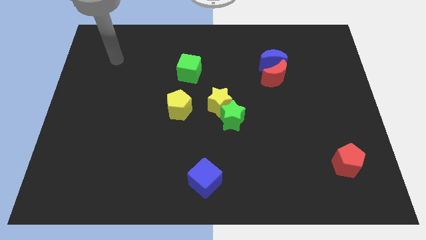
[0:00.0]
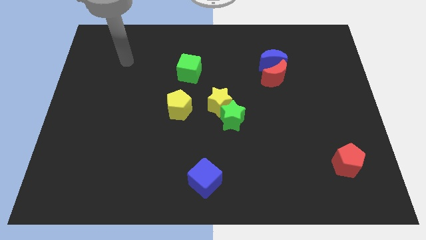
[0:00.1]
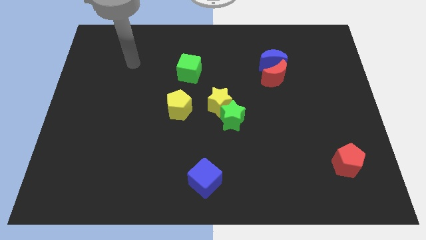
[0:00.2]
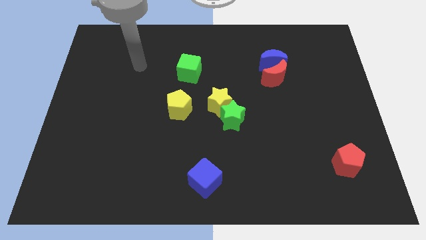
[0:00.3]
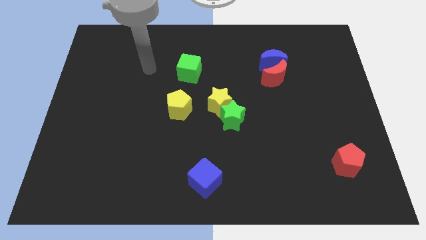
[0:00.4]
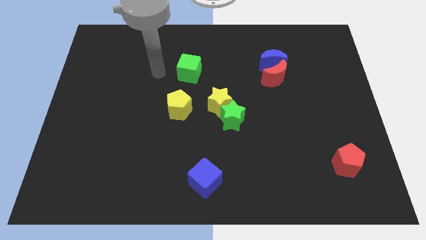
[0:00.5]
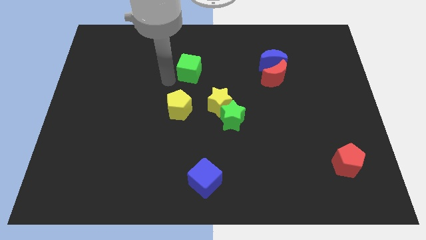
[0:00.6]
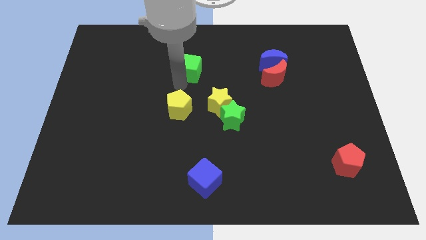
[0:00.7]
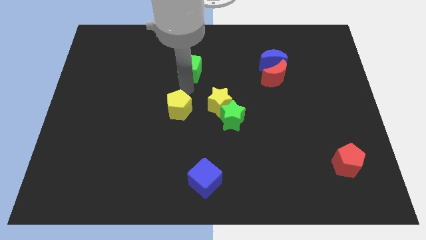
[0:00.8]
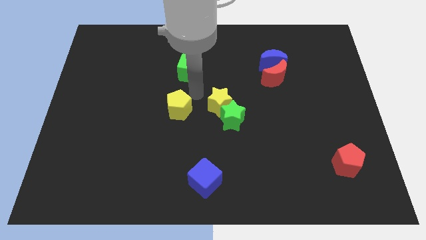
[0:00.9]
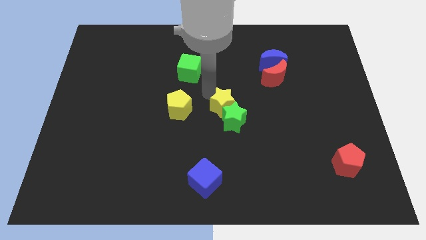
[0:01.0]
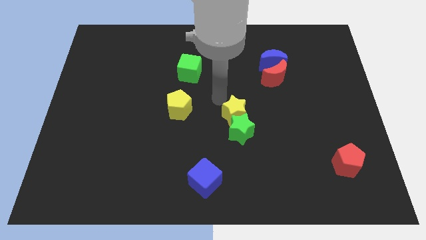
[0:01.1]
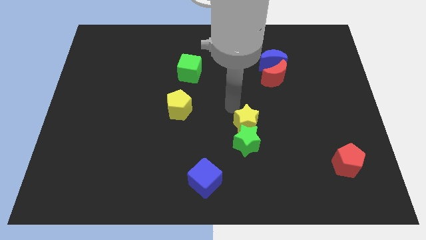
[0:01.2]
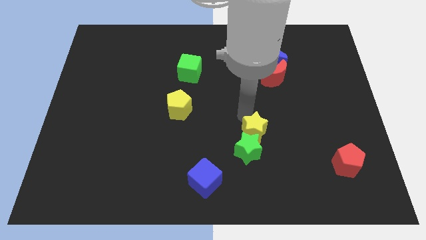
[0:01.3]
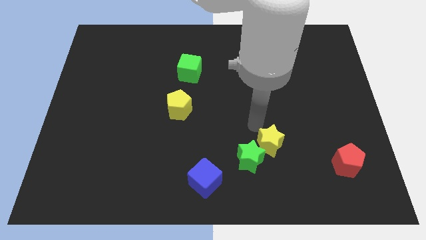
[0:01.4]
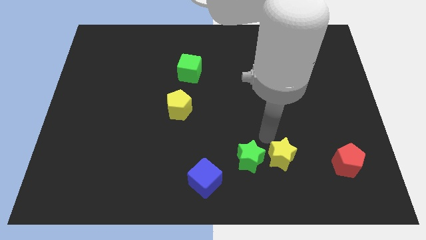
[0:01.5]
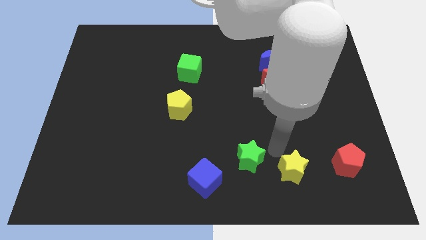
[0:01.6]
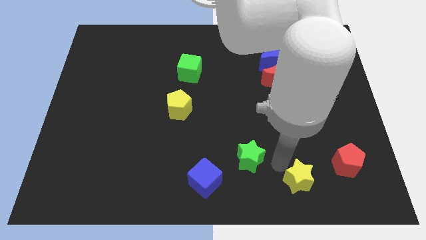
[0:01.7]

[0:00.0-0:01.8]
move the green star away from the yellow star

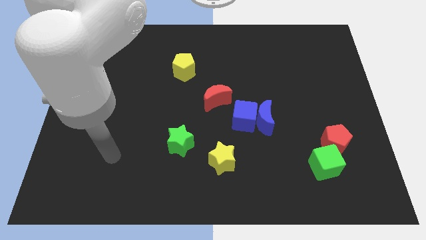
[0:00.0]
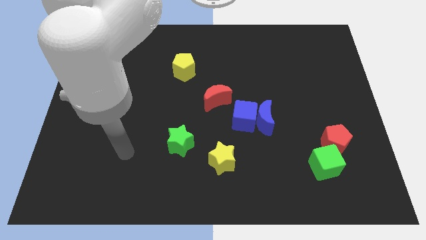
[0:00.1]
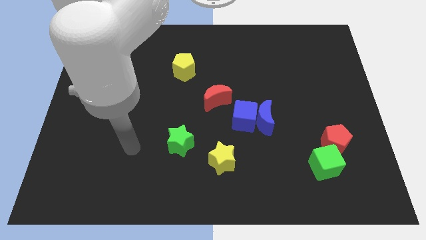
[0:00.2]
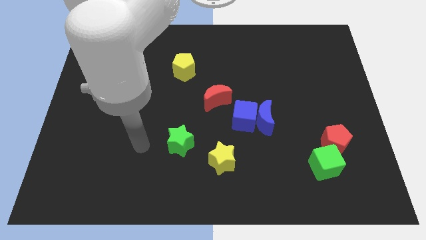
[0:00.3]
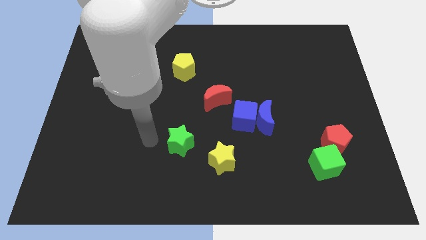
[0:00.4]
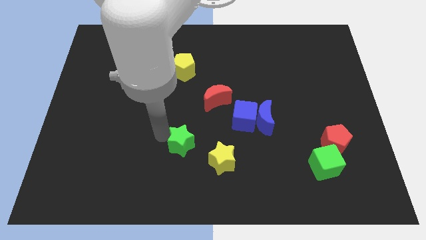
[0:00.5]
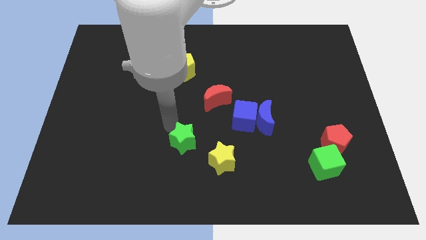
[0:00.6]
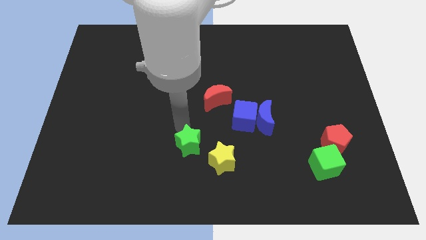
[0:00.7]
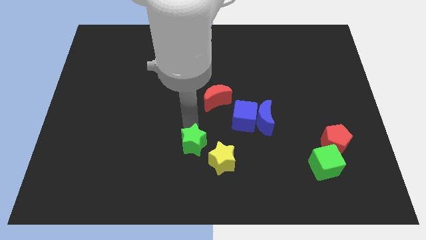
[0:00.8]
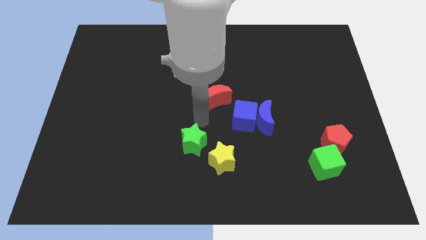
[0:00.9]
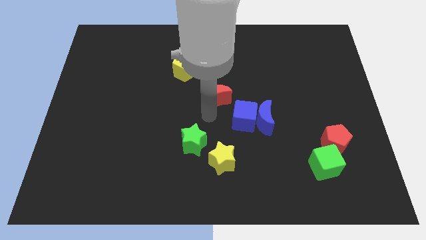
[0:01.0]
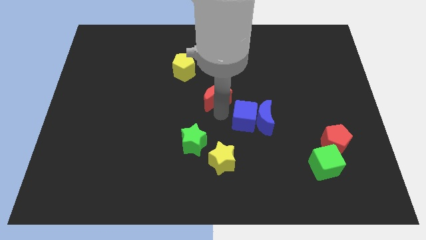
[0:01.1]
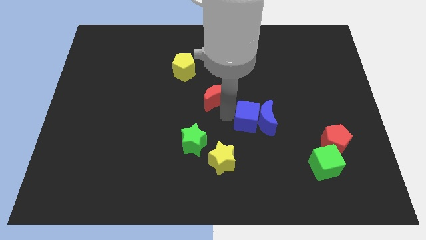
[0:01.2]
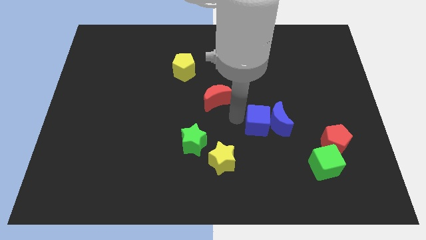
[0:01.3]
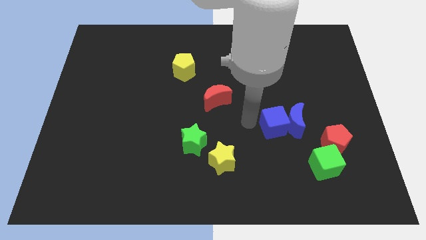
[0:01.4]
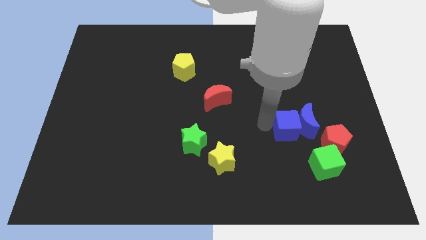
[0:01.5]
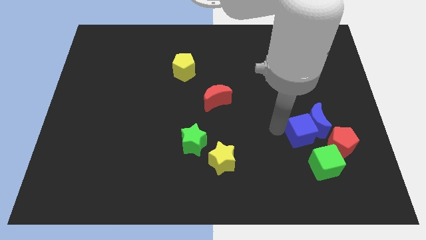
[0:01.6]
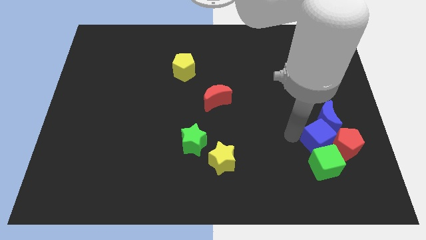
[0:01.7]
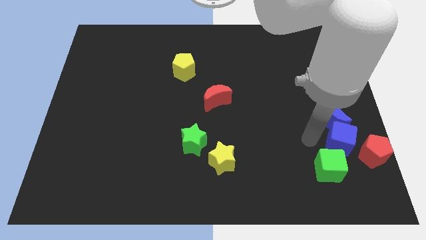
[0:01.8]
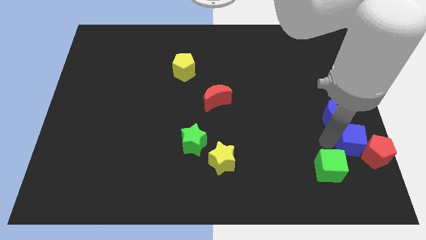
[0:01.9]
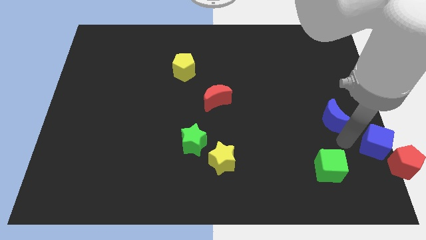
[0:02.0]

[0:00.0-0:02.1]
pull the blue moon apart from the blue cube

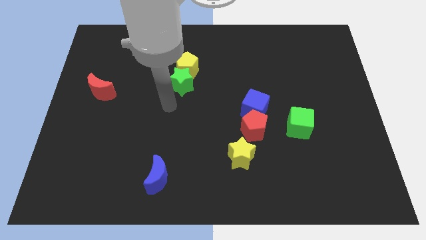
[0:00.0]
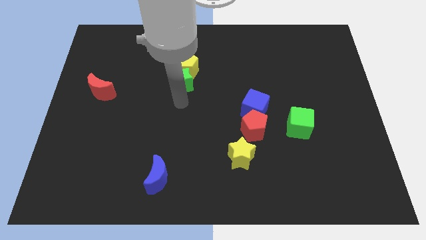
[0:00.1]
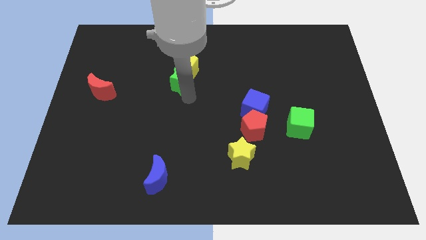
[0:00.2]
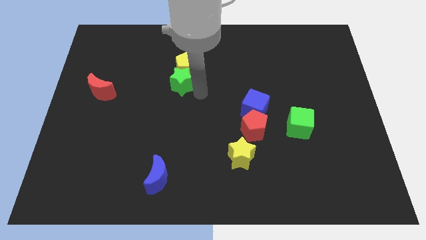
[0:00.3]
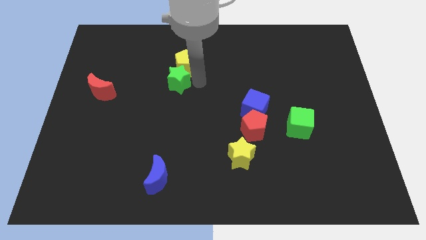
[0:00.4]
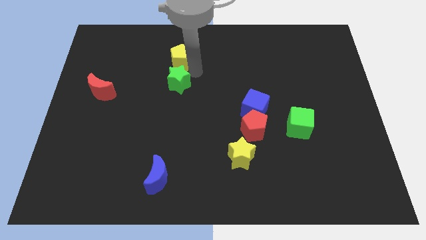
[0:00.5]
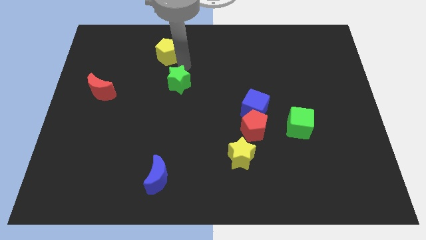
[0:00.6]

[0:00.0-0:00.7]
move the green star away from the yellow pentagon

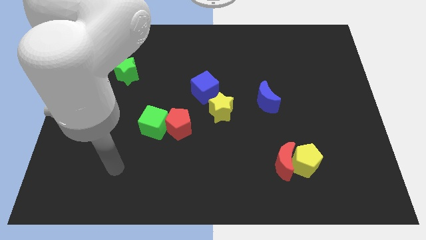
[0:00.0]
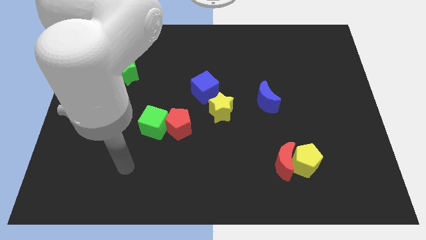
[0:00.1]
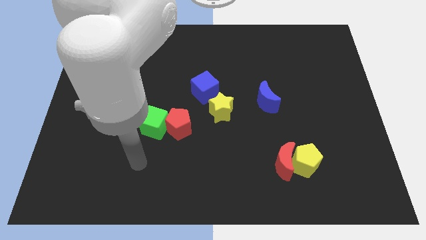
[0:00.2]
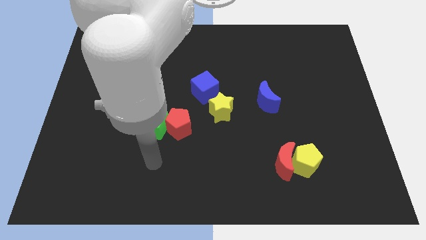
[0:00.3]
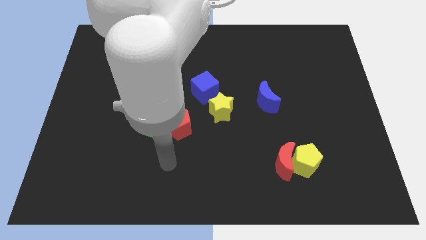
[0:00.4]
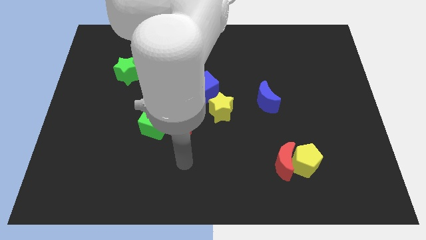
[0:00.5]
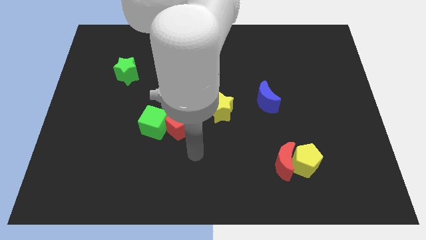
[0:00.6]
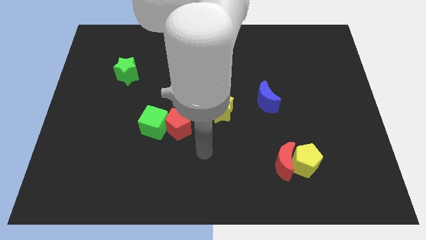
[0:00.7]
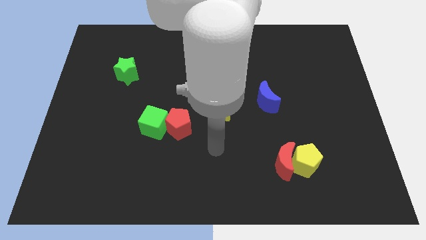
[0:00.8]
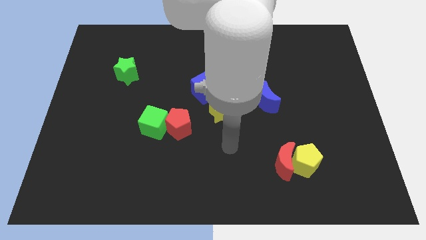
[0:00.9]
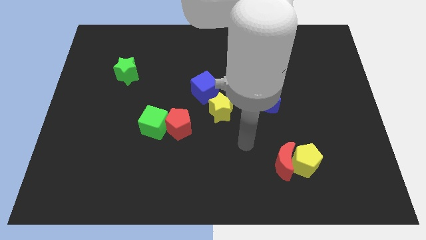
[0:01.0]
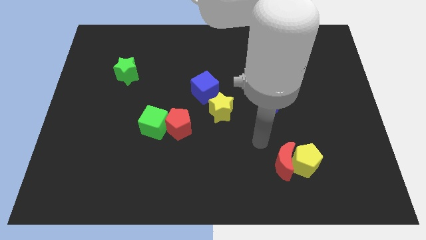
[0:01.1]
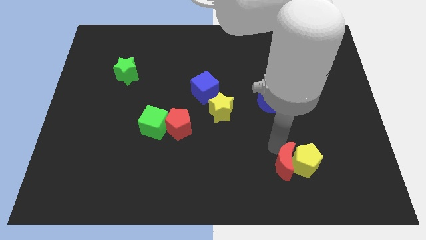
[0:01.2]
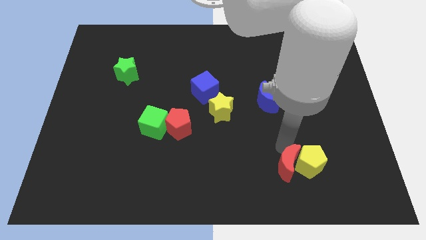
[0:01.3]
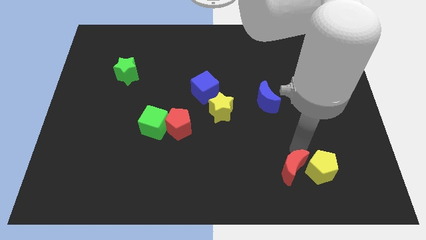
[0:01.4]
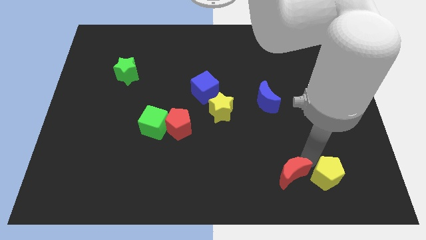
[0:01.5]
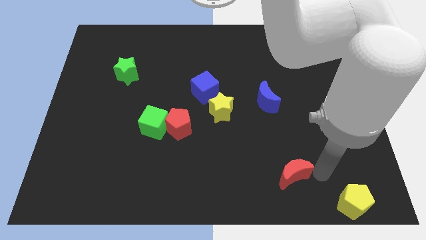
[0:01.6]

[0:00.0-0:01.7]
move the red moon away from the yellow pentagon

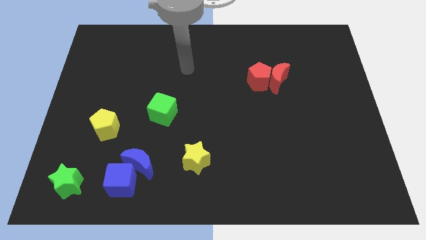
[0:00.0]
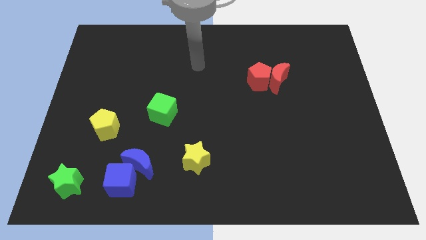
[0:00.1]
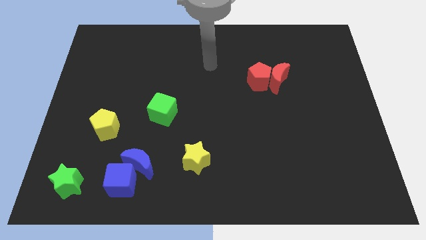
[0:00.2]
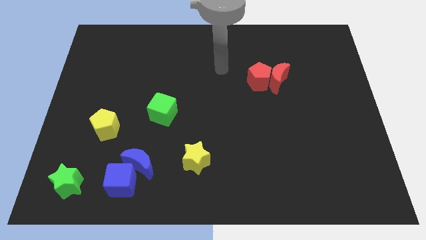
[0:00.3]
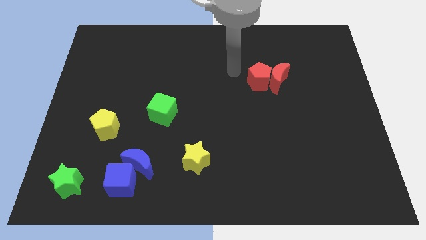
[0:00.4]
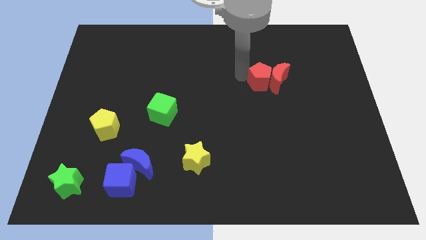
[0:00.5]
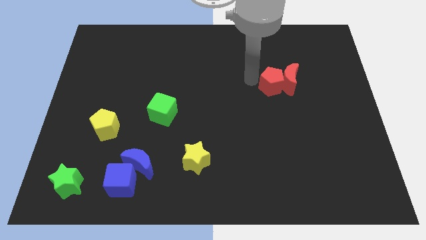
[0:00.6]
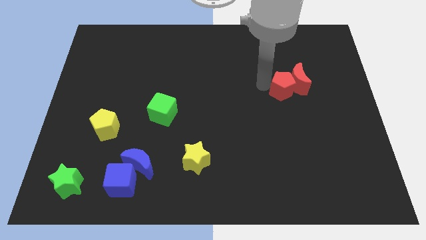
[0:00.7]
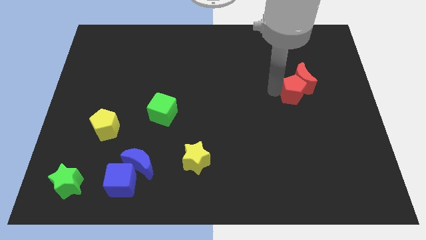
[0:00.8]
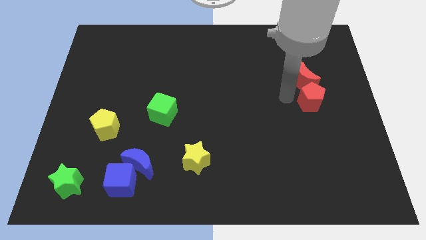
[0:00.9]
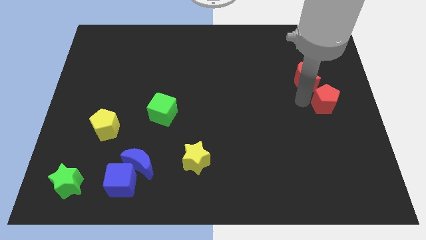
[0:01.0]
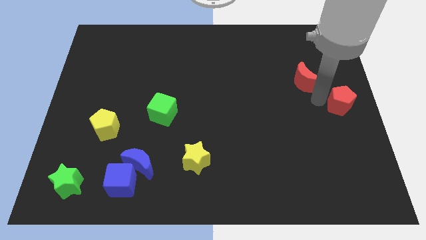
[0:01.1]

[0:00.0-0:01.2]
separate the red moon from the red pentagon

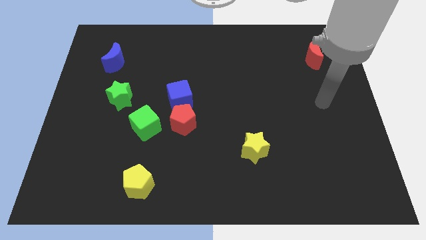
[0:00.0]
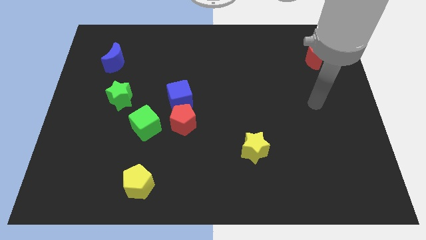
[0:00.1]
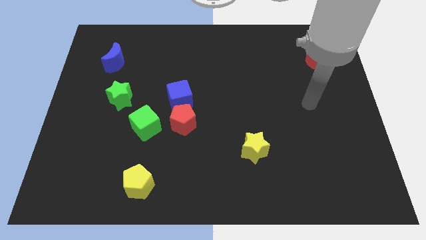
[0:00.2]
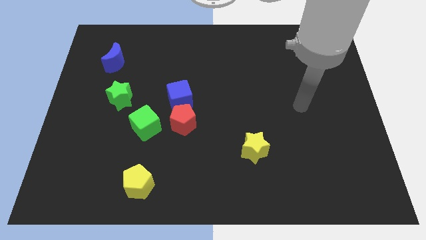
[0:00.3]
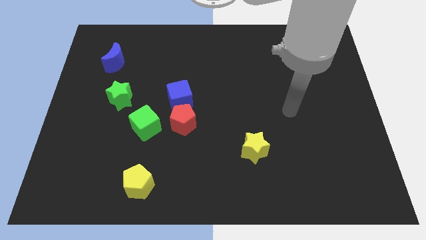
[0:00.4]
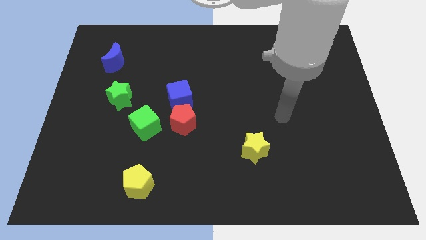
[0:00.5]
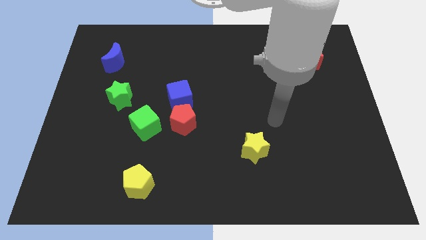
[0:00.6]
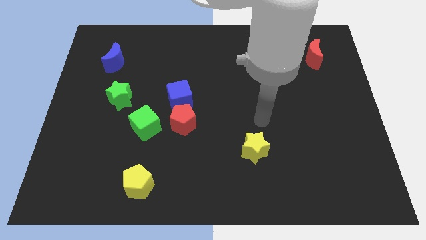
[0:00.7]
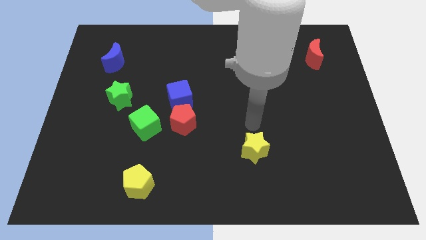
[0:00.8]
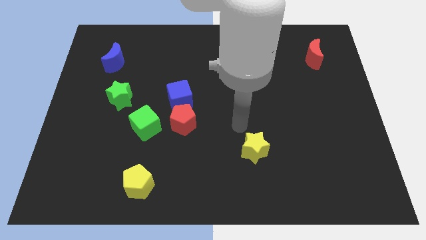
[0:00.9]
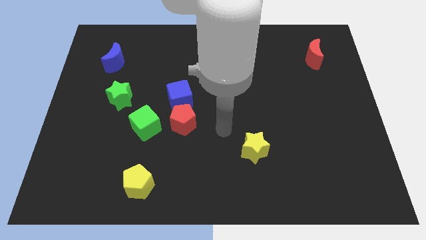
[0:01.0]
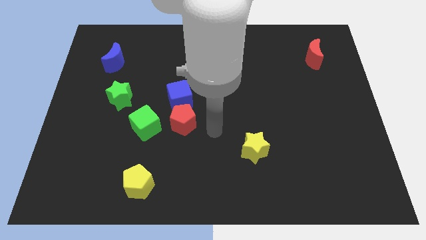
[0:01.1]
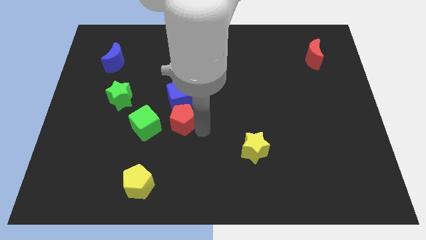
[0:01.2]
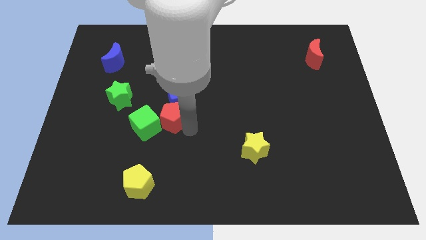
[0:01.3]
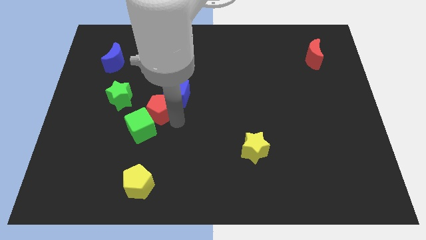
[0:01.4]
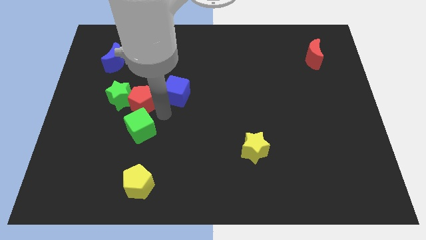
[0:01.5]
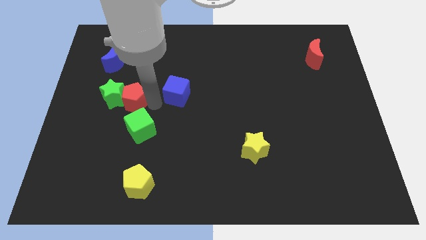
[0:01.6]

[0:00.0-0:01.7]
separate the blue cube from the red pentagon

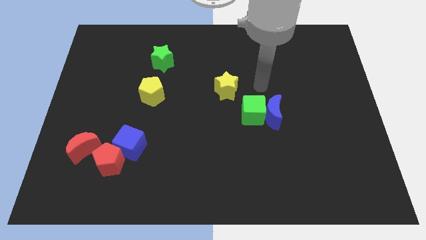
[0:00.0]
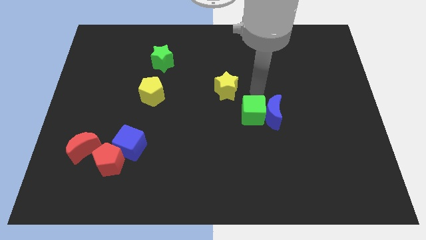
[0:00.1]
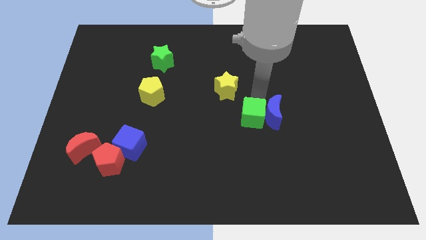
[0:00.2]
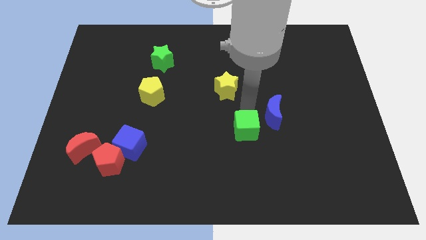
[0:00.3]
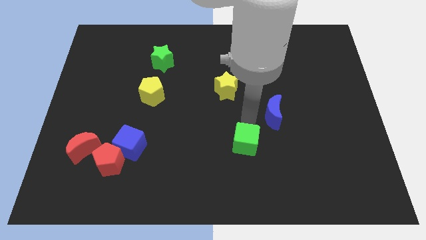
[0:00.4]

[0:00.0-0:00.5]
pull the blue moon apart from the green cube
